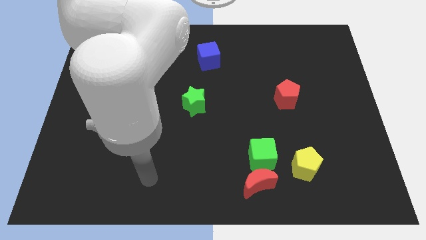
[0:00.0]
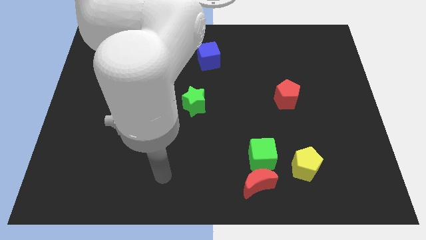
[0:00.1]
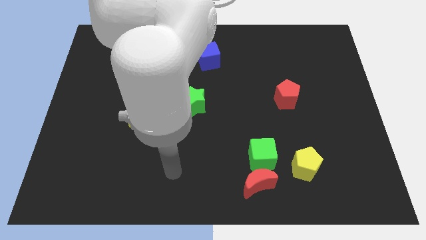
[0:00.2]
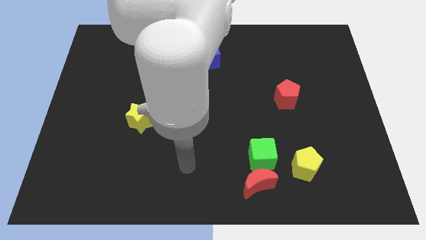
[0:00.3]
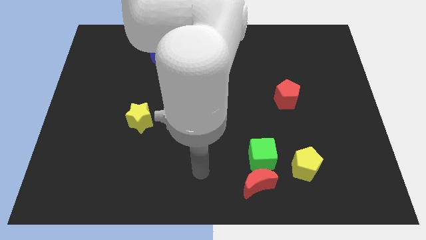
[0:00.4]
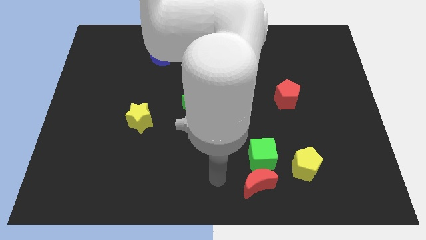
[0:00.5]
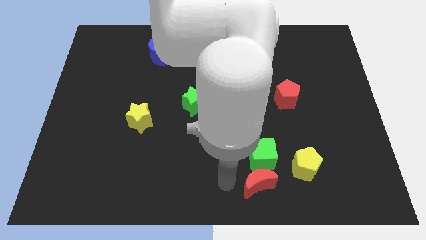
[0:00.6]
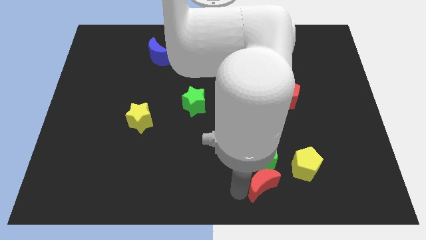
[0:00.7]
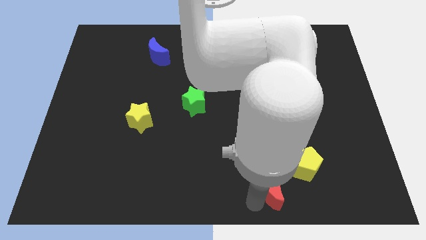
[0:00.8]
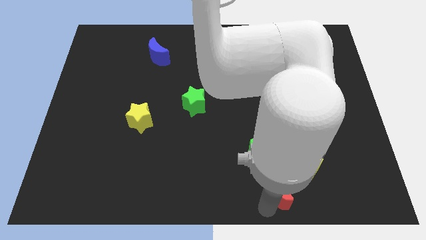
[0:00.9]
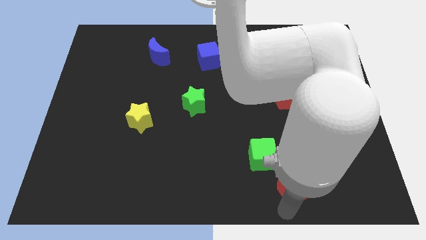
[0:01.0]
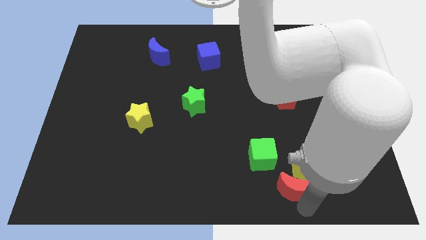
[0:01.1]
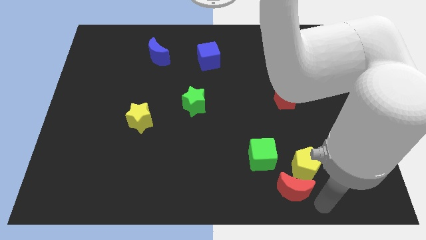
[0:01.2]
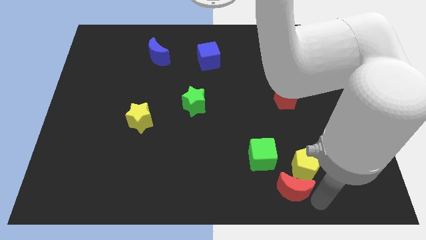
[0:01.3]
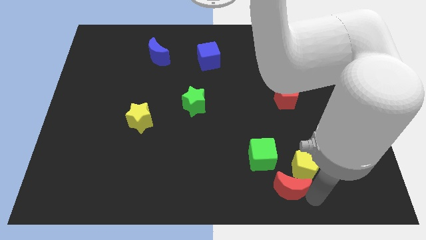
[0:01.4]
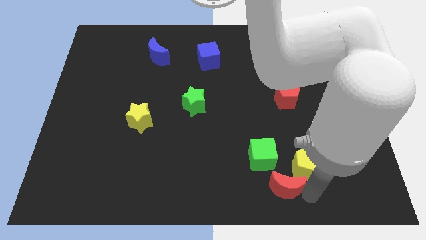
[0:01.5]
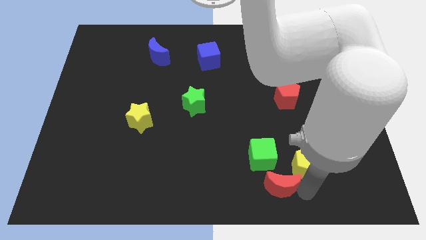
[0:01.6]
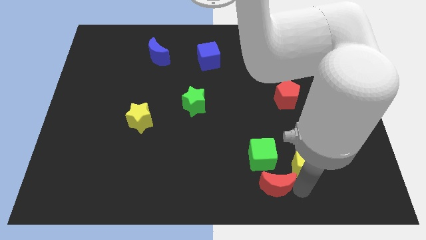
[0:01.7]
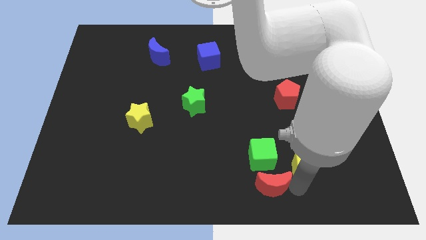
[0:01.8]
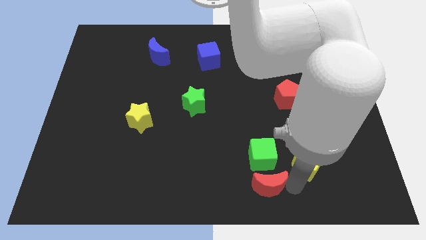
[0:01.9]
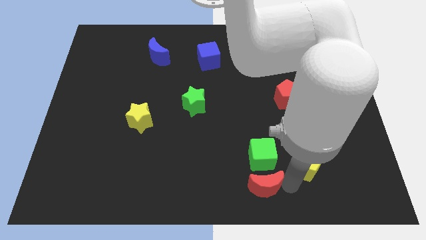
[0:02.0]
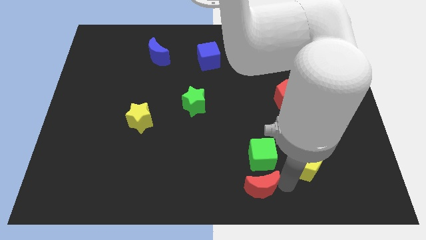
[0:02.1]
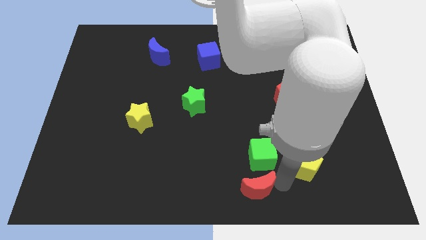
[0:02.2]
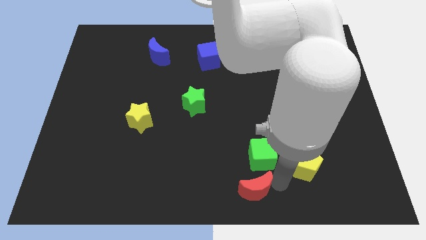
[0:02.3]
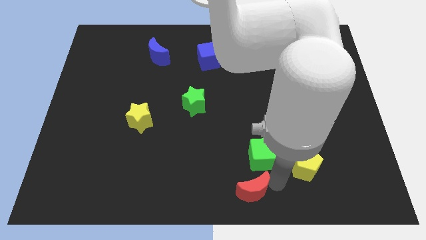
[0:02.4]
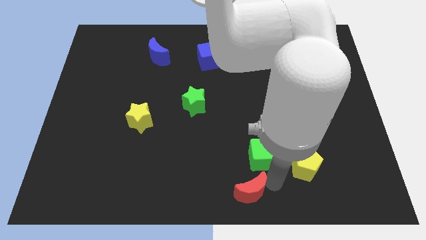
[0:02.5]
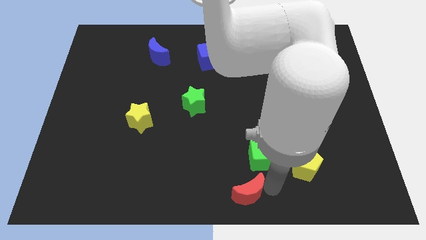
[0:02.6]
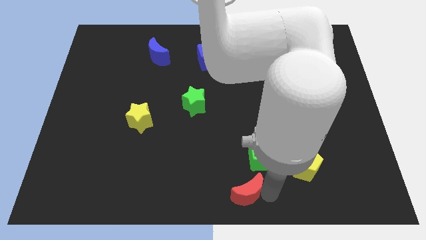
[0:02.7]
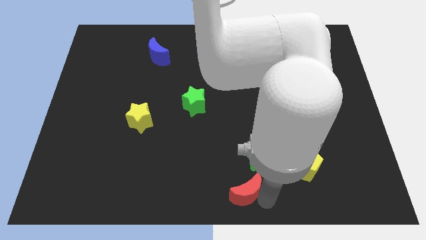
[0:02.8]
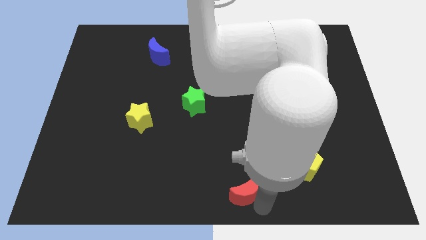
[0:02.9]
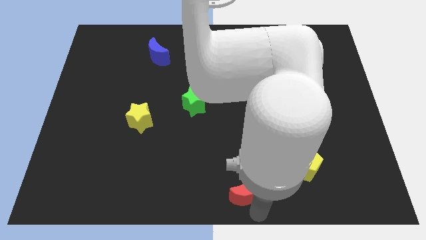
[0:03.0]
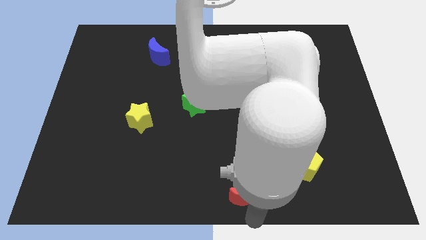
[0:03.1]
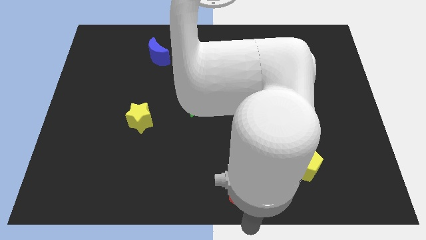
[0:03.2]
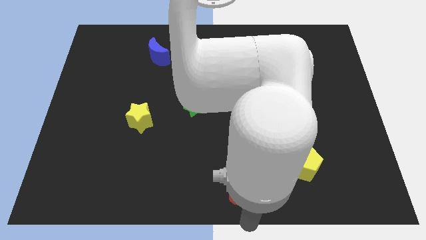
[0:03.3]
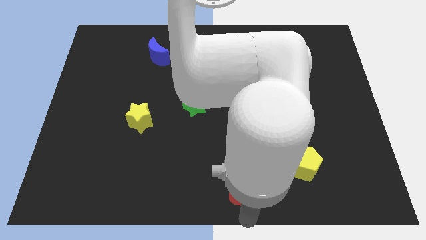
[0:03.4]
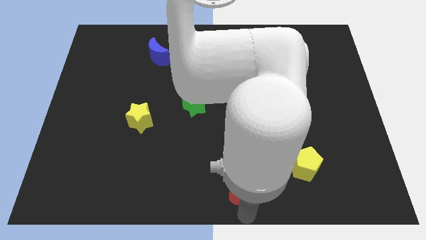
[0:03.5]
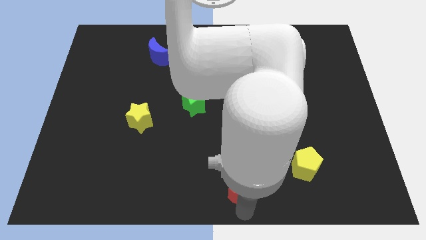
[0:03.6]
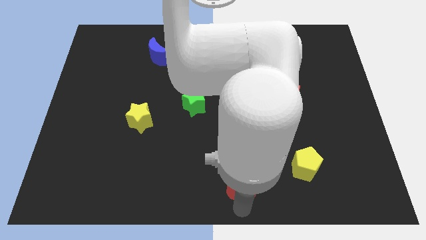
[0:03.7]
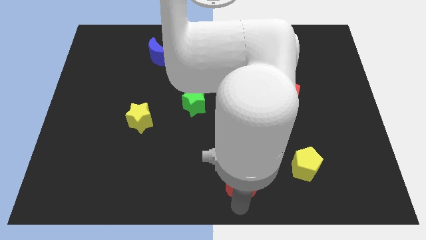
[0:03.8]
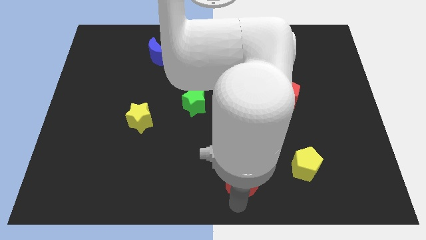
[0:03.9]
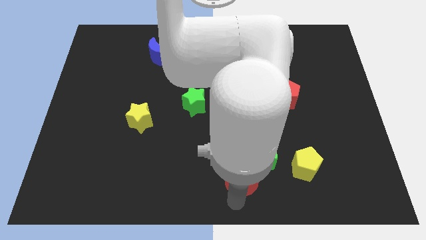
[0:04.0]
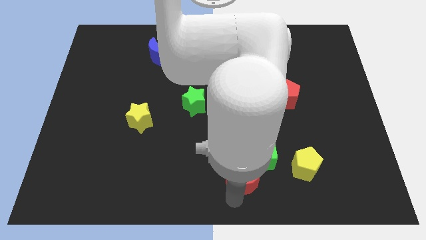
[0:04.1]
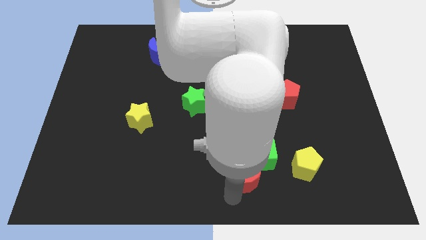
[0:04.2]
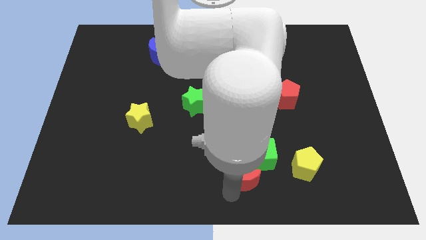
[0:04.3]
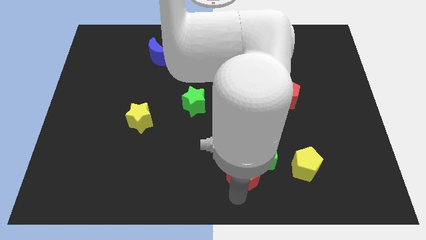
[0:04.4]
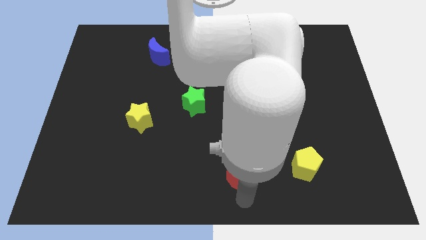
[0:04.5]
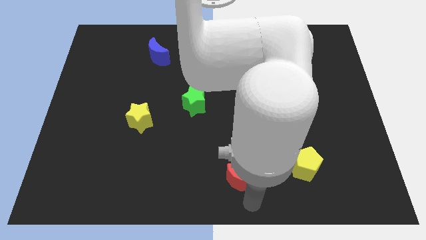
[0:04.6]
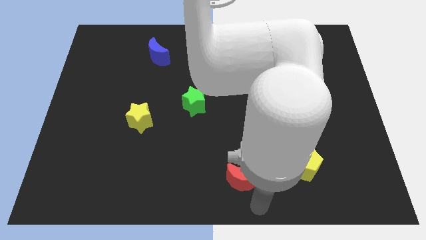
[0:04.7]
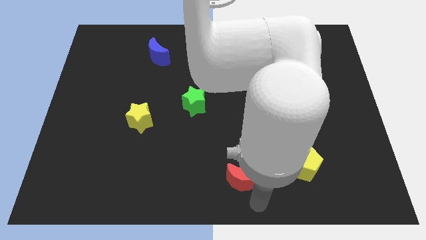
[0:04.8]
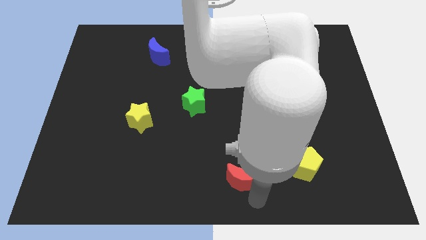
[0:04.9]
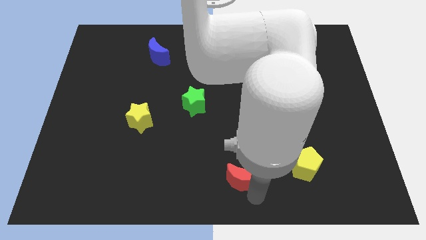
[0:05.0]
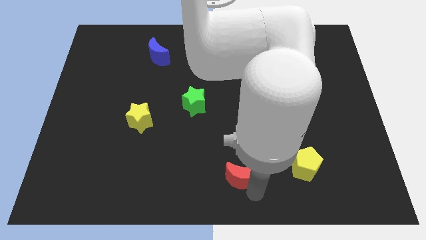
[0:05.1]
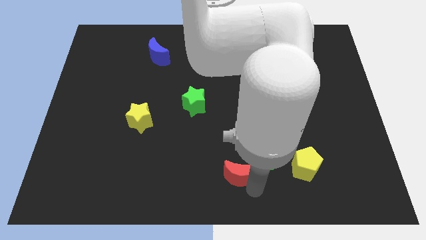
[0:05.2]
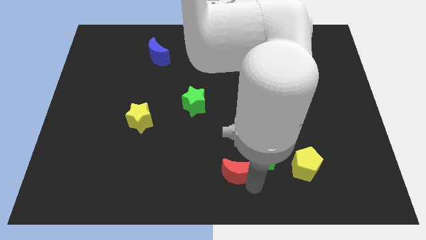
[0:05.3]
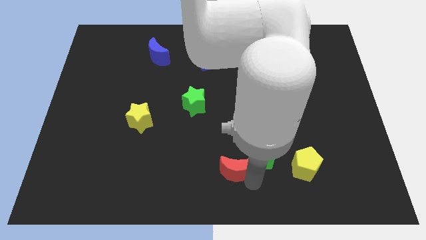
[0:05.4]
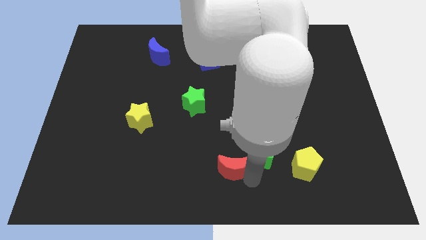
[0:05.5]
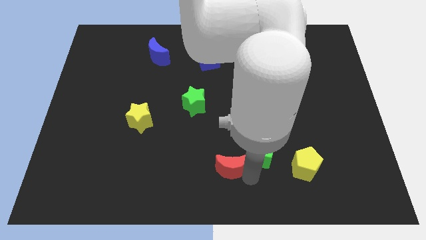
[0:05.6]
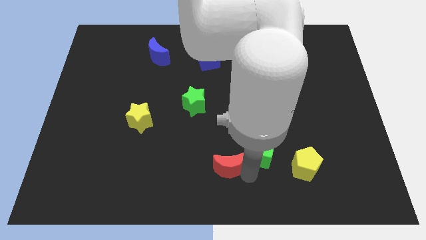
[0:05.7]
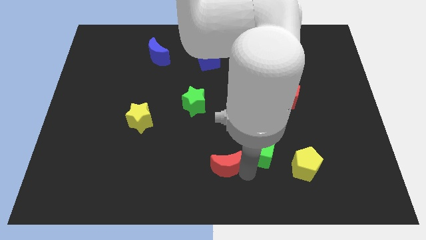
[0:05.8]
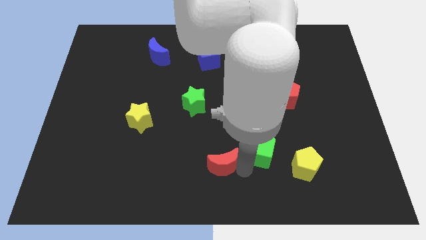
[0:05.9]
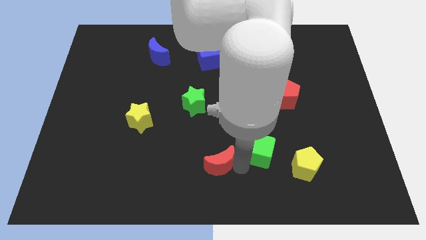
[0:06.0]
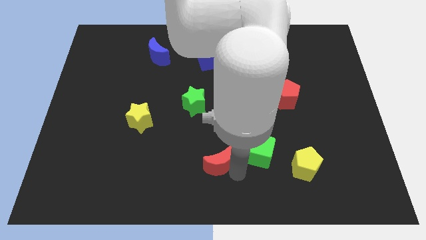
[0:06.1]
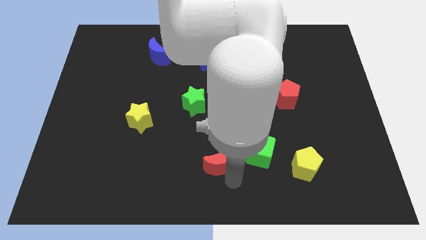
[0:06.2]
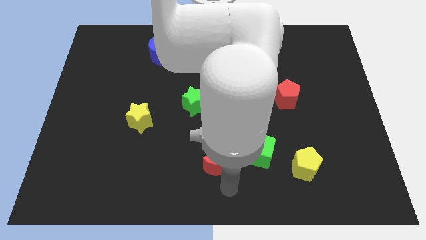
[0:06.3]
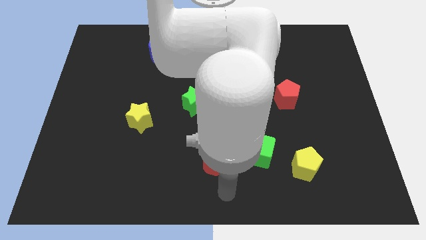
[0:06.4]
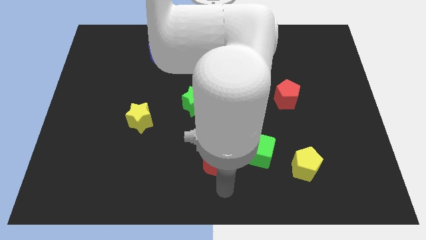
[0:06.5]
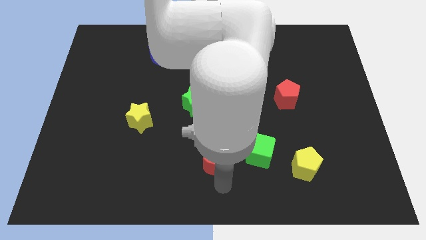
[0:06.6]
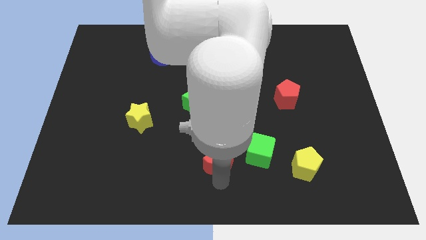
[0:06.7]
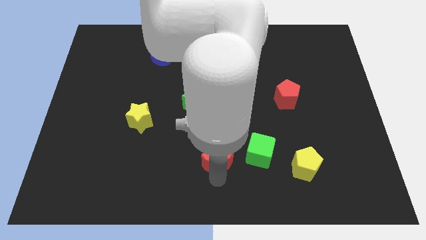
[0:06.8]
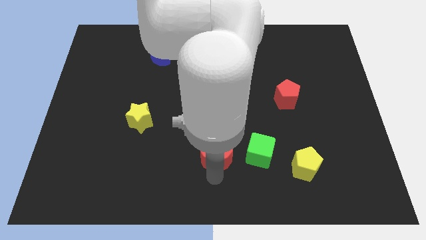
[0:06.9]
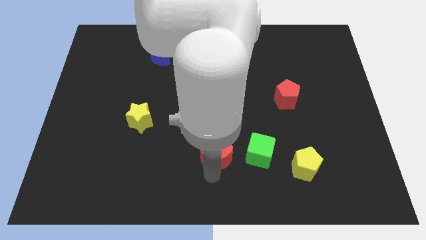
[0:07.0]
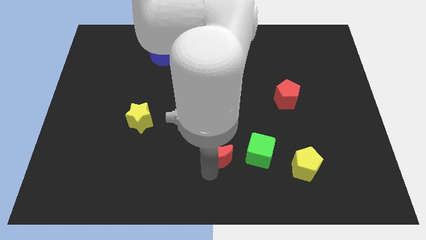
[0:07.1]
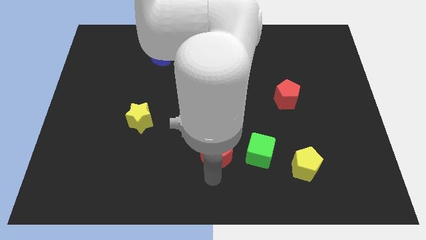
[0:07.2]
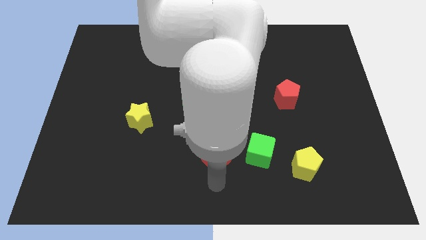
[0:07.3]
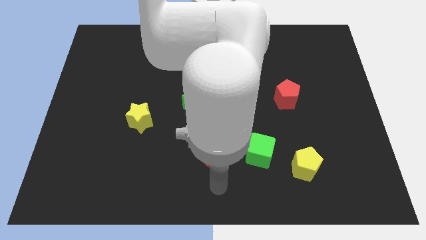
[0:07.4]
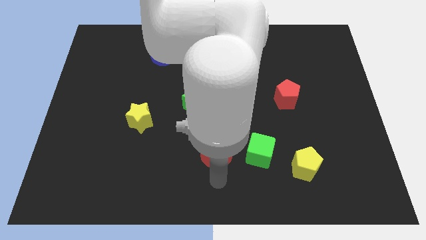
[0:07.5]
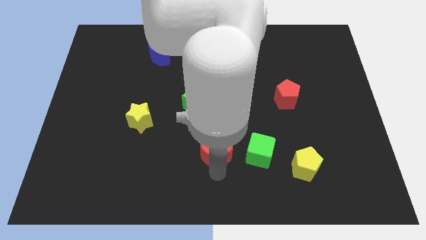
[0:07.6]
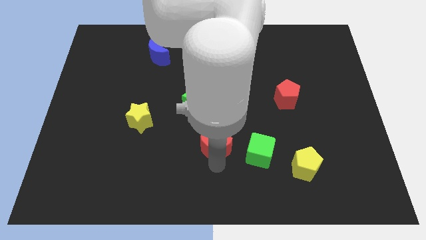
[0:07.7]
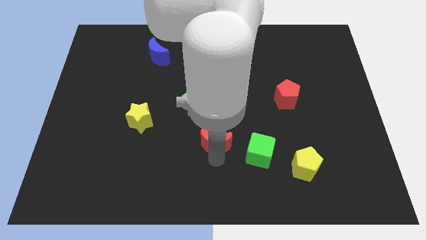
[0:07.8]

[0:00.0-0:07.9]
push the red moon to the center
